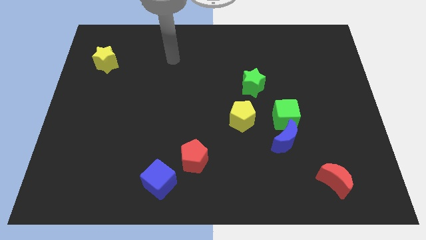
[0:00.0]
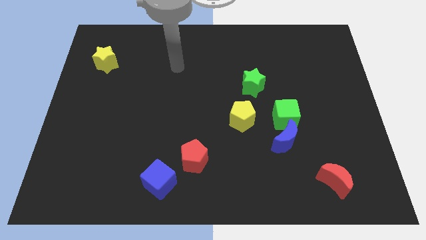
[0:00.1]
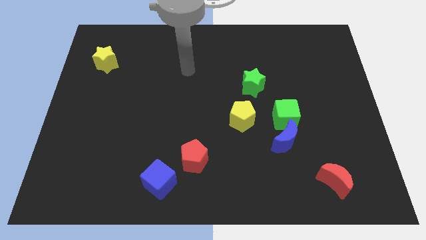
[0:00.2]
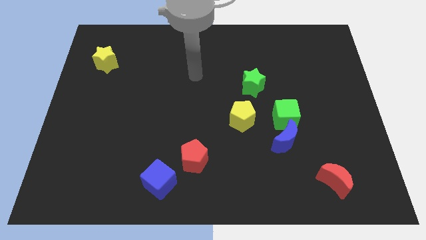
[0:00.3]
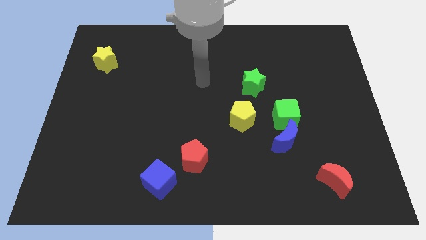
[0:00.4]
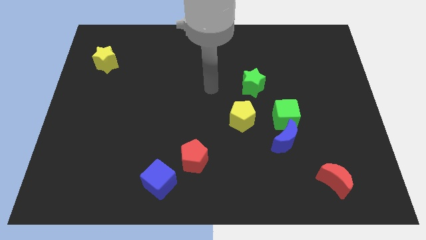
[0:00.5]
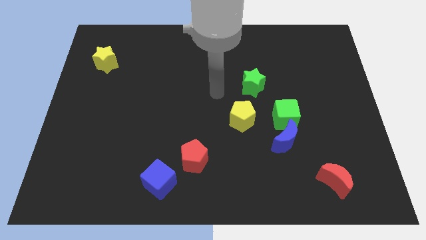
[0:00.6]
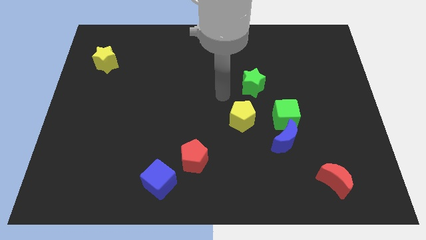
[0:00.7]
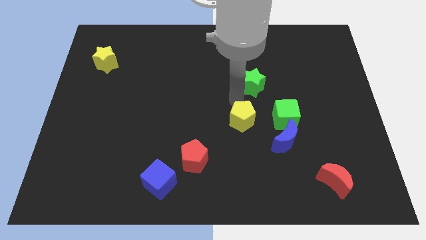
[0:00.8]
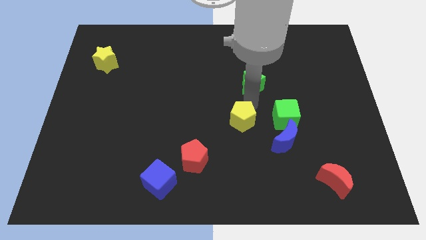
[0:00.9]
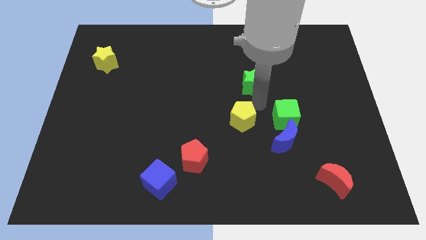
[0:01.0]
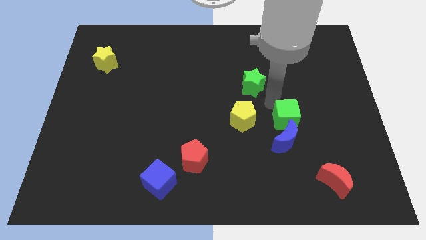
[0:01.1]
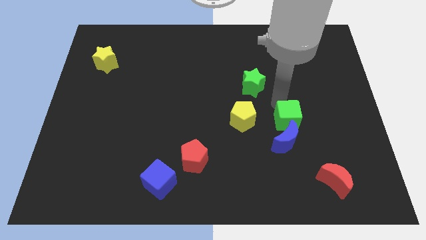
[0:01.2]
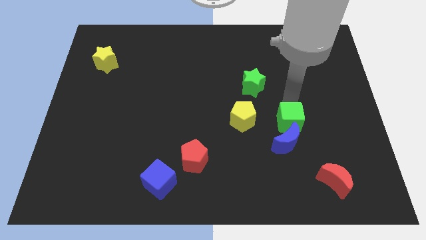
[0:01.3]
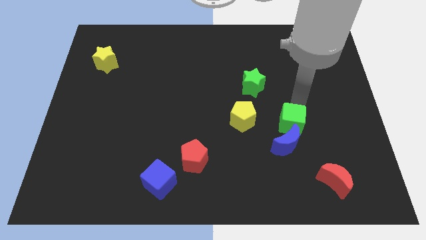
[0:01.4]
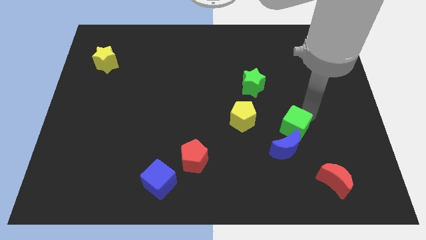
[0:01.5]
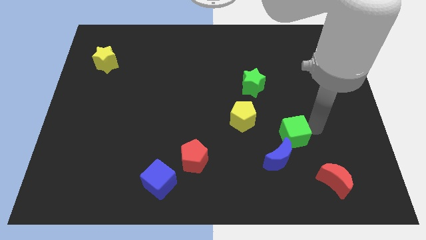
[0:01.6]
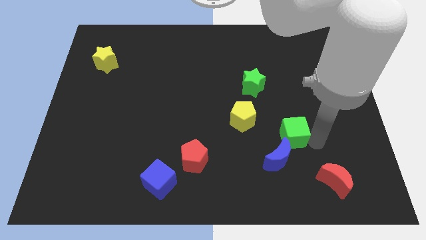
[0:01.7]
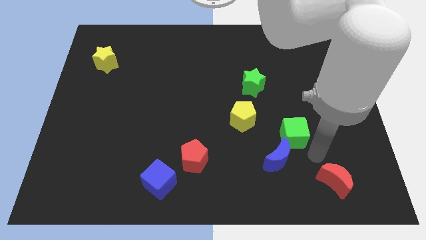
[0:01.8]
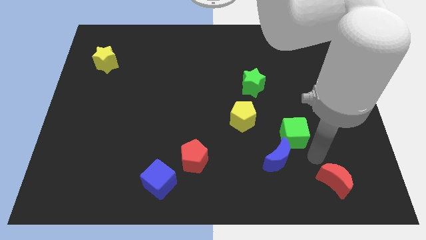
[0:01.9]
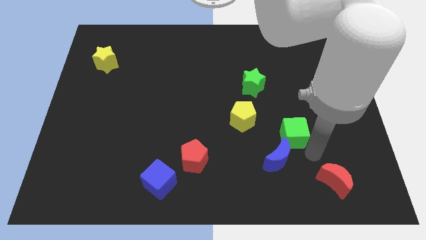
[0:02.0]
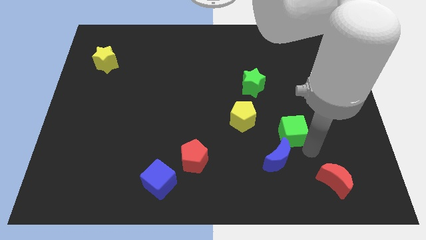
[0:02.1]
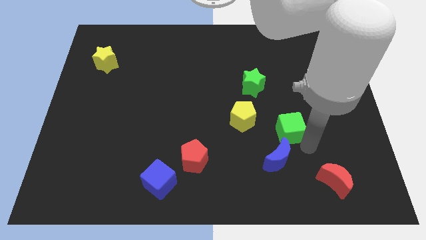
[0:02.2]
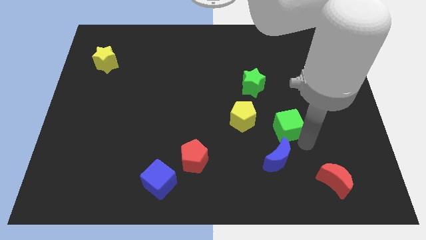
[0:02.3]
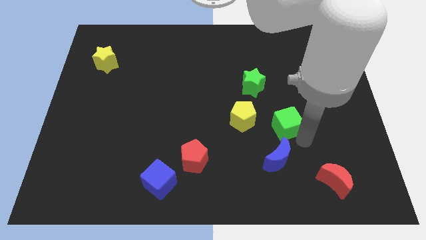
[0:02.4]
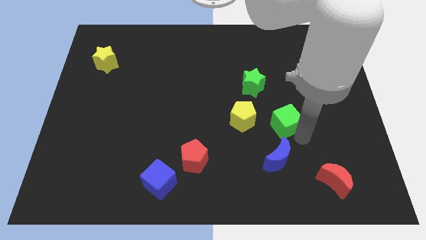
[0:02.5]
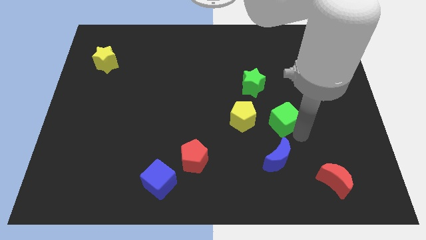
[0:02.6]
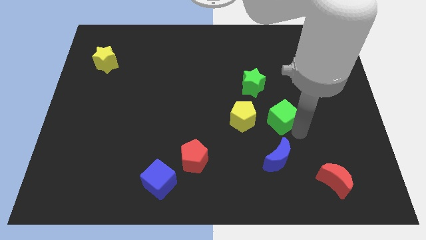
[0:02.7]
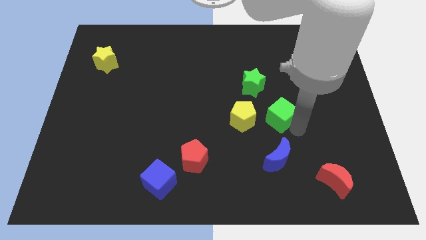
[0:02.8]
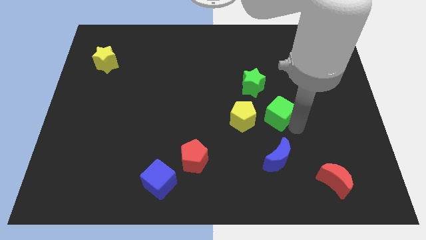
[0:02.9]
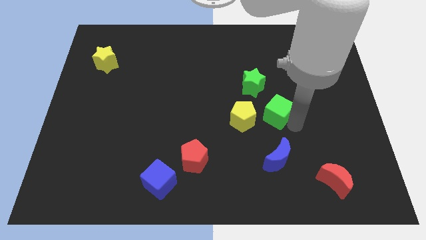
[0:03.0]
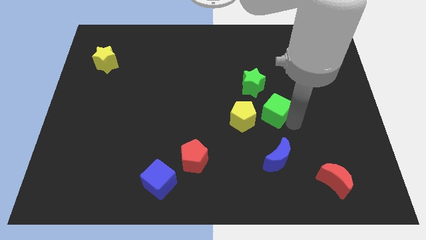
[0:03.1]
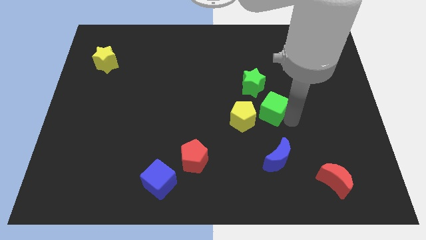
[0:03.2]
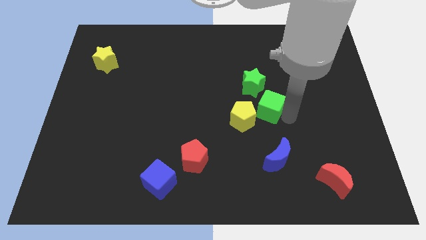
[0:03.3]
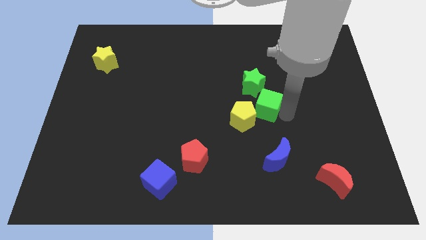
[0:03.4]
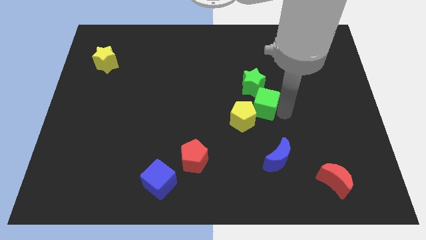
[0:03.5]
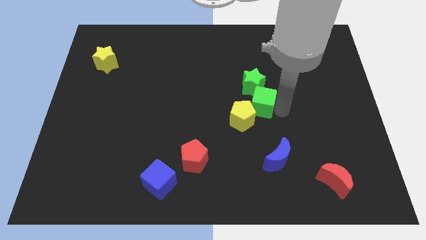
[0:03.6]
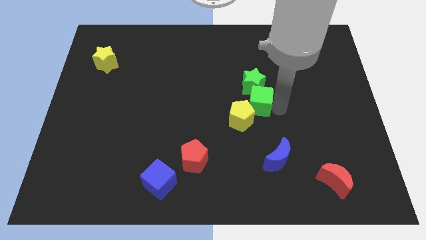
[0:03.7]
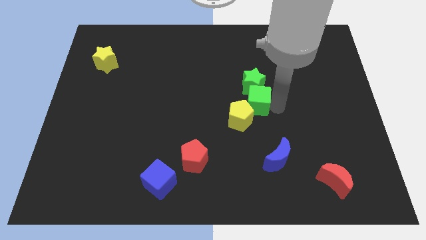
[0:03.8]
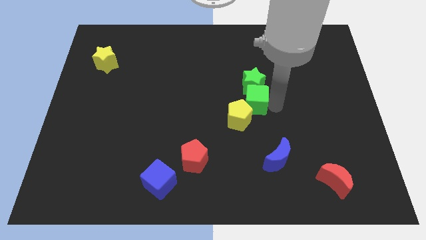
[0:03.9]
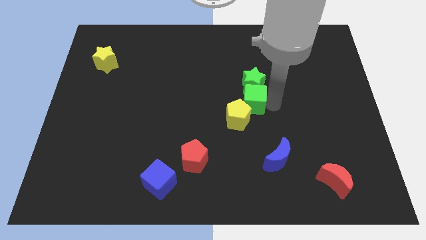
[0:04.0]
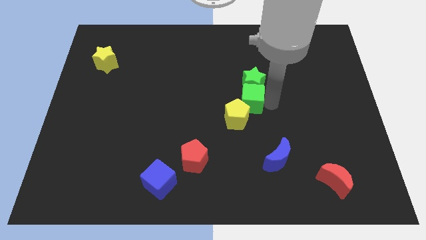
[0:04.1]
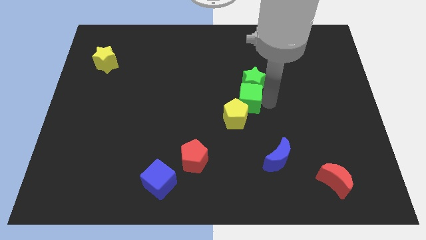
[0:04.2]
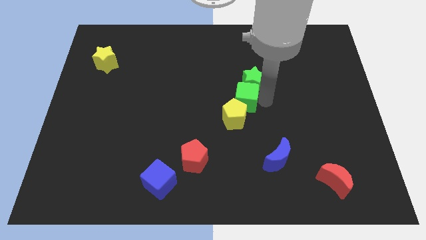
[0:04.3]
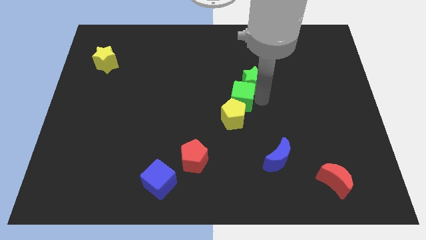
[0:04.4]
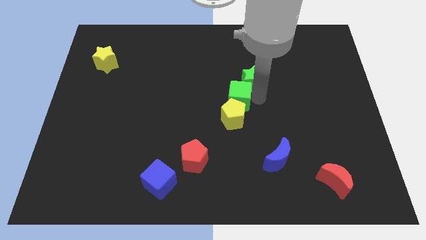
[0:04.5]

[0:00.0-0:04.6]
slide the green cube to the top left side of the yellow pentagon

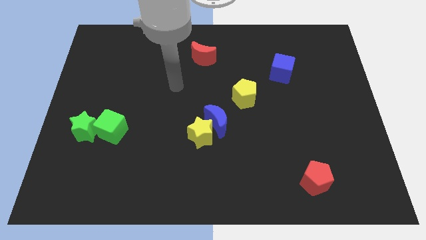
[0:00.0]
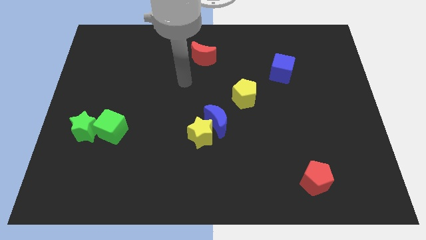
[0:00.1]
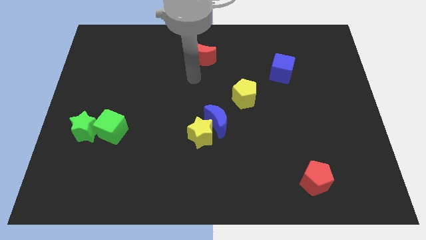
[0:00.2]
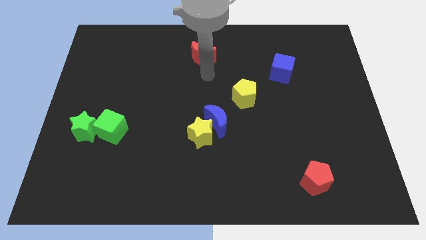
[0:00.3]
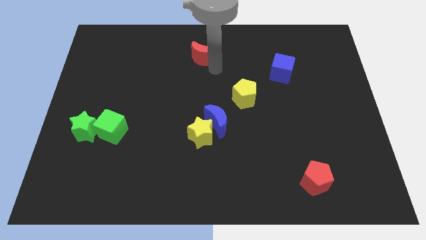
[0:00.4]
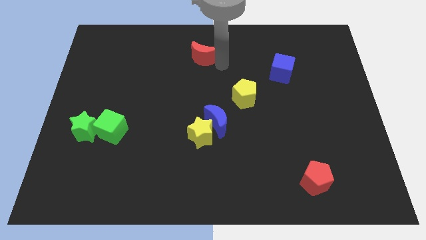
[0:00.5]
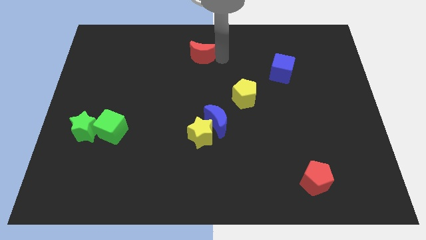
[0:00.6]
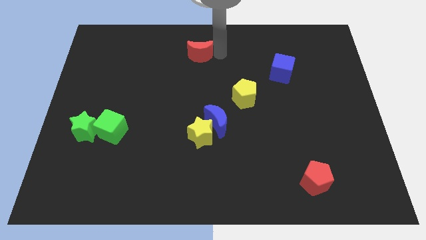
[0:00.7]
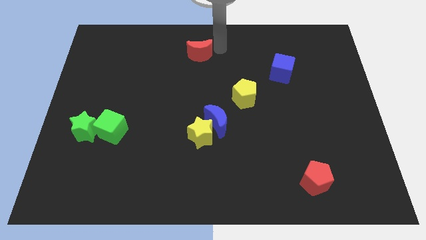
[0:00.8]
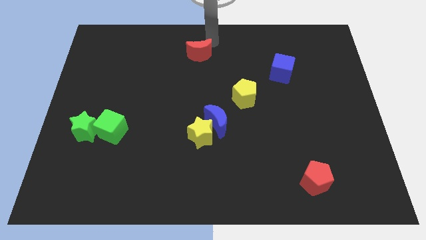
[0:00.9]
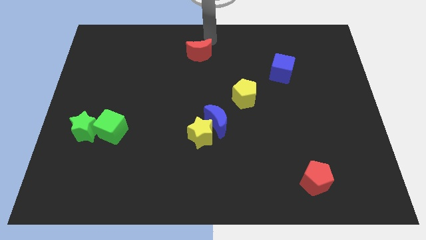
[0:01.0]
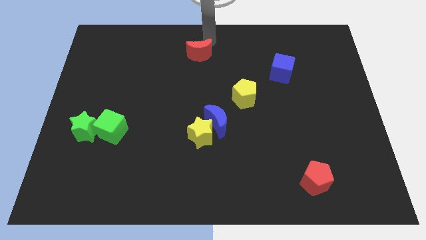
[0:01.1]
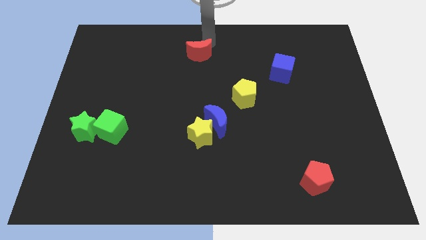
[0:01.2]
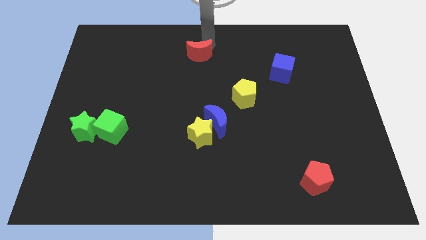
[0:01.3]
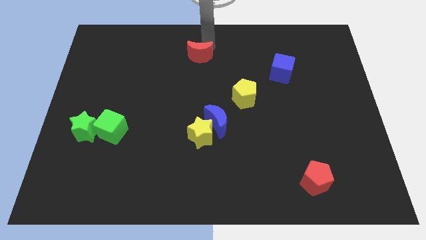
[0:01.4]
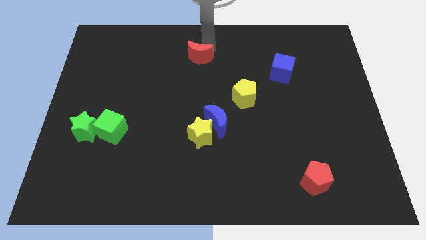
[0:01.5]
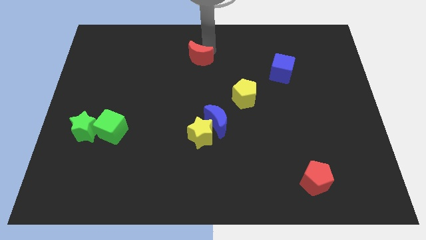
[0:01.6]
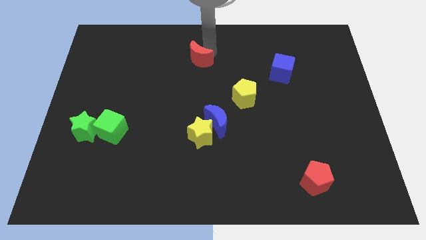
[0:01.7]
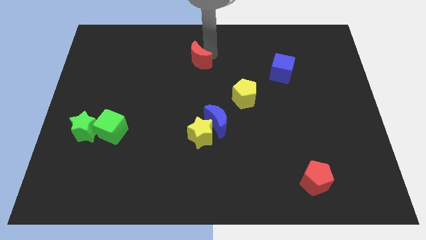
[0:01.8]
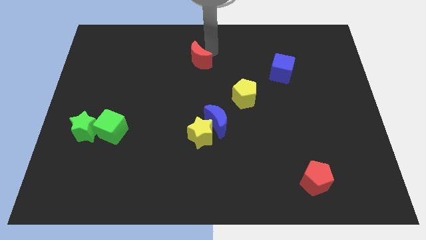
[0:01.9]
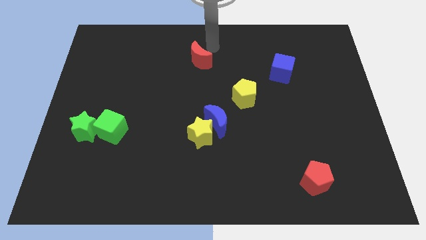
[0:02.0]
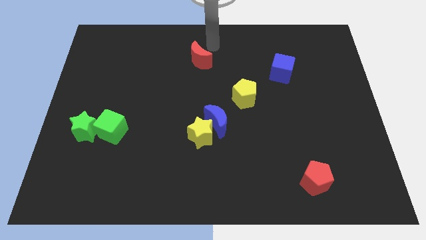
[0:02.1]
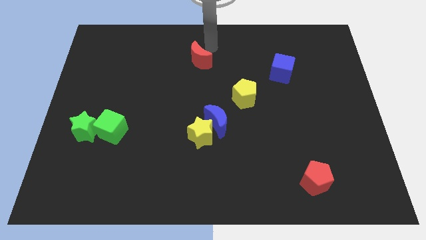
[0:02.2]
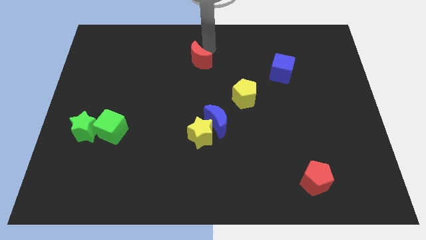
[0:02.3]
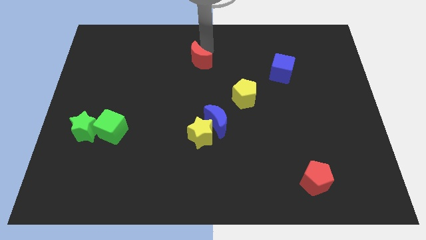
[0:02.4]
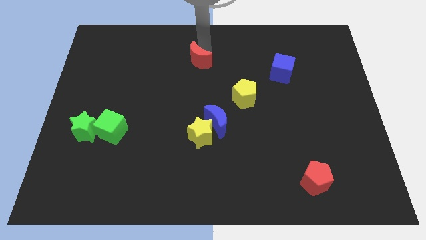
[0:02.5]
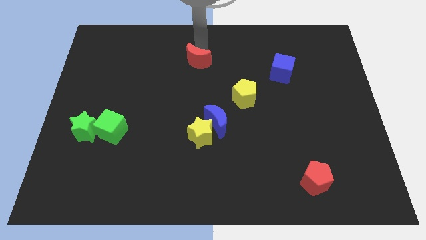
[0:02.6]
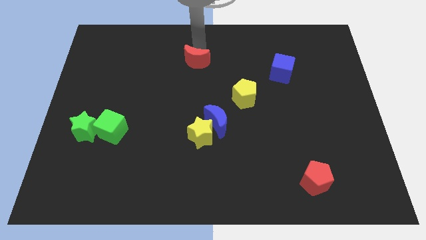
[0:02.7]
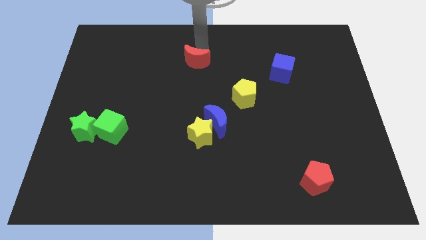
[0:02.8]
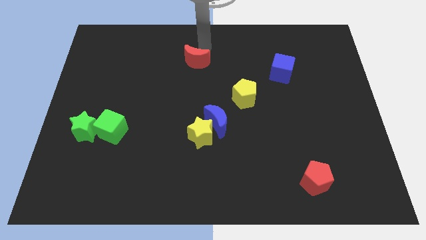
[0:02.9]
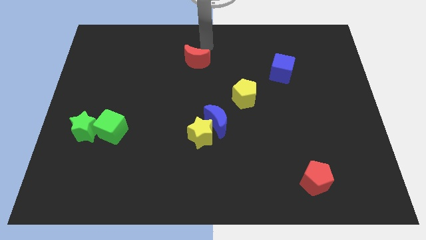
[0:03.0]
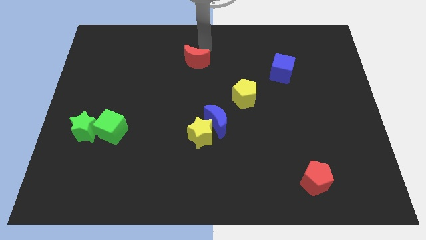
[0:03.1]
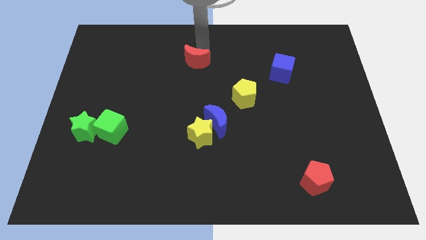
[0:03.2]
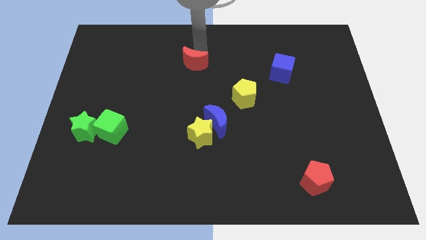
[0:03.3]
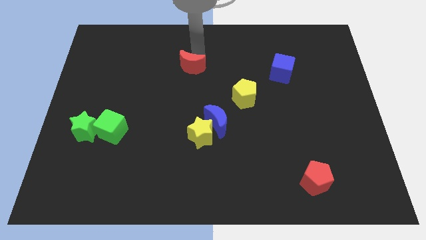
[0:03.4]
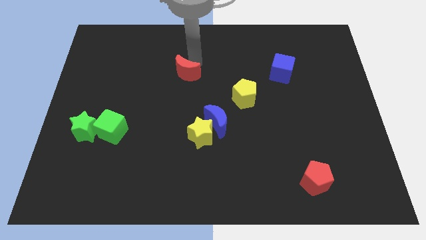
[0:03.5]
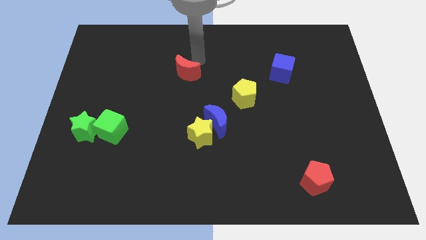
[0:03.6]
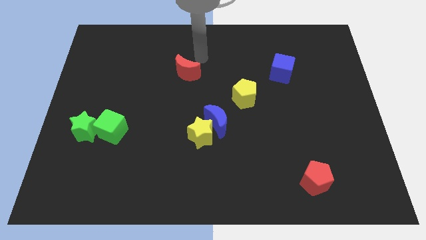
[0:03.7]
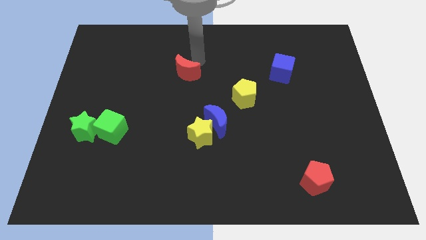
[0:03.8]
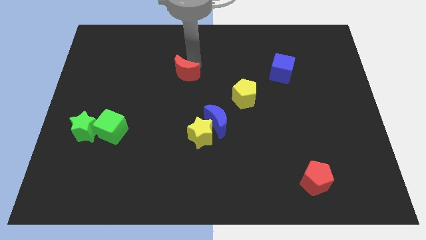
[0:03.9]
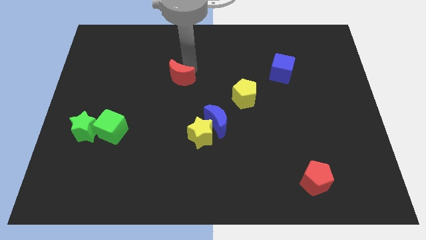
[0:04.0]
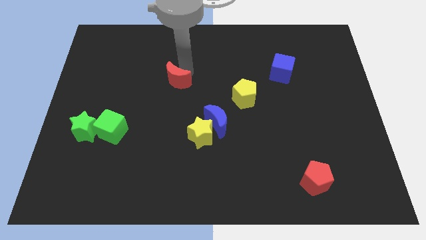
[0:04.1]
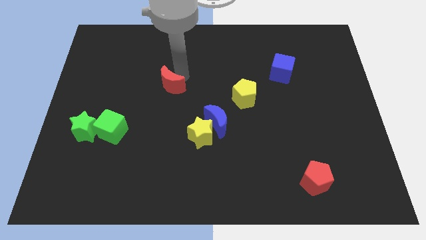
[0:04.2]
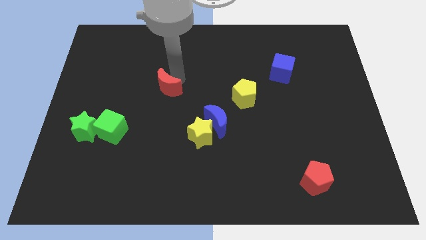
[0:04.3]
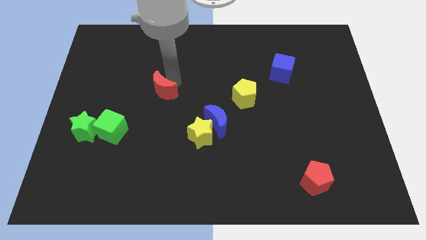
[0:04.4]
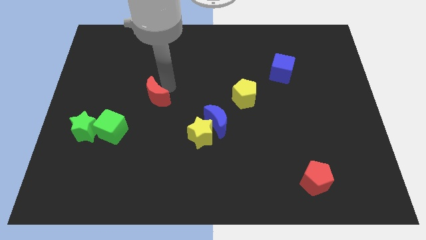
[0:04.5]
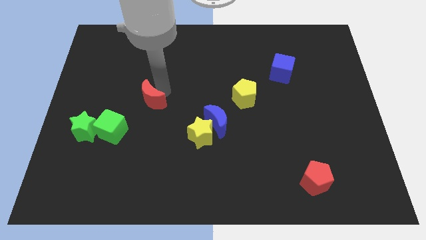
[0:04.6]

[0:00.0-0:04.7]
push the red moon to the top right of the green cube
